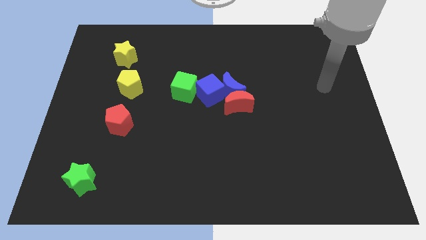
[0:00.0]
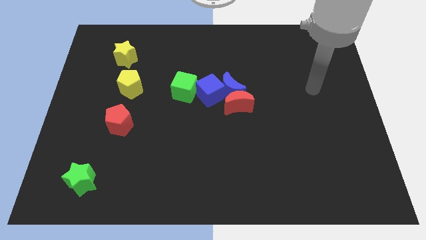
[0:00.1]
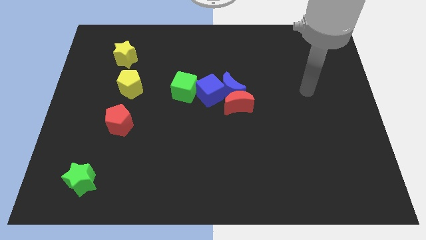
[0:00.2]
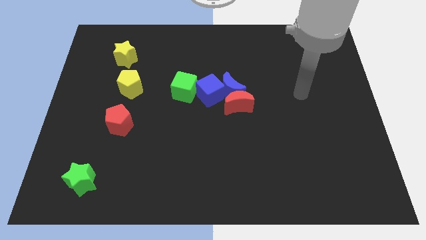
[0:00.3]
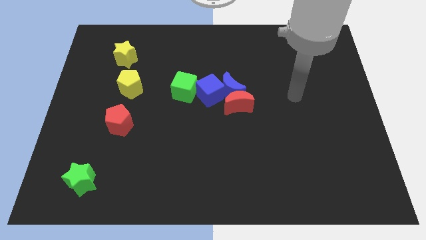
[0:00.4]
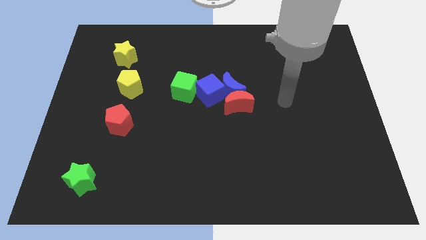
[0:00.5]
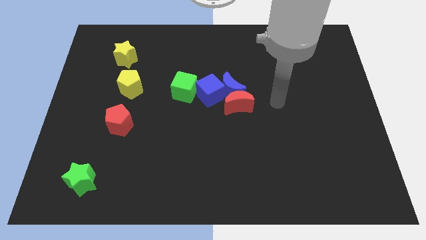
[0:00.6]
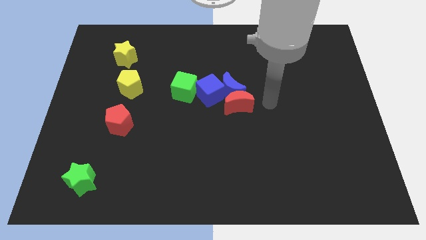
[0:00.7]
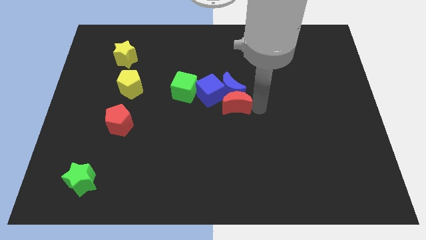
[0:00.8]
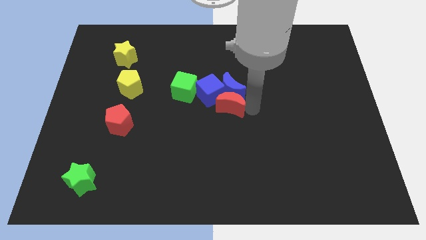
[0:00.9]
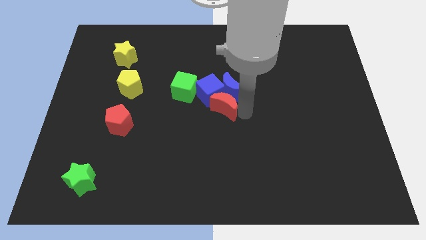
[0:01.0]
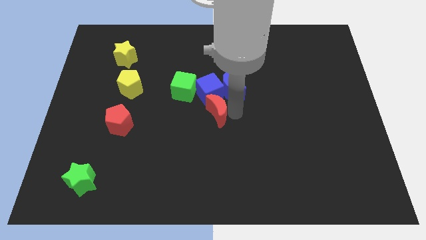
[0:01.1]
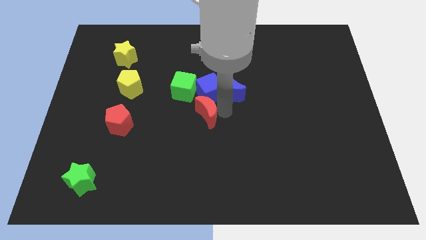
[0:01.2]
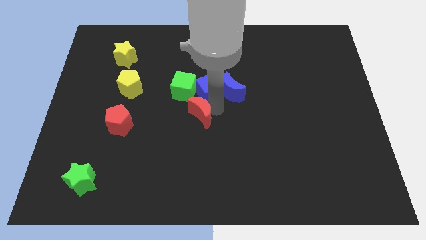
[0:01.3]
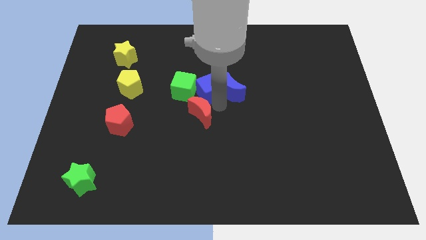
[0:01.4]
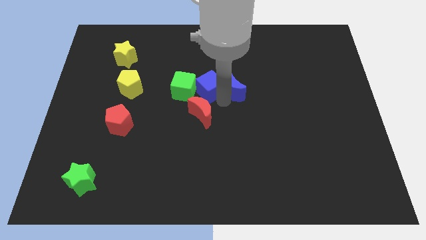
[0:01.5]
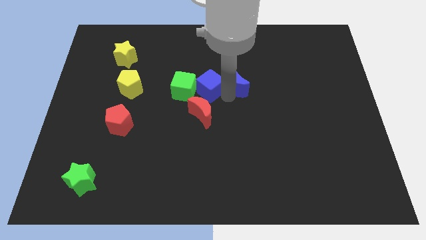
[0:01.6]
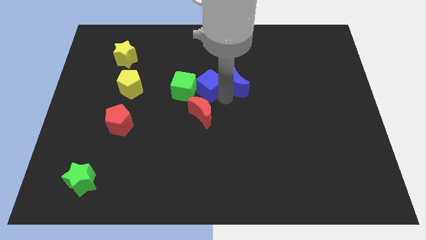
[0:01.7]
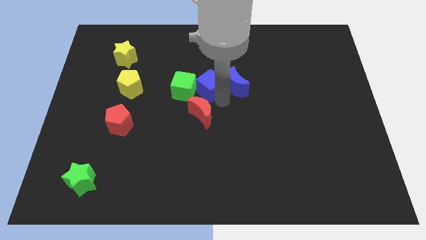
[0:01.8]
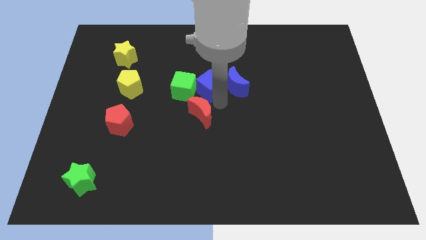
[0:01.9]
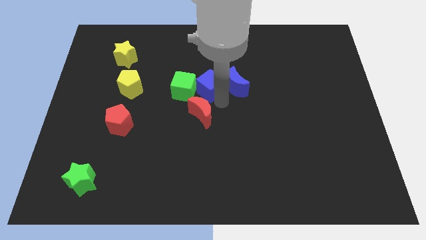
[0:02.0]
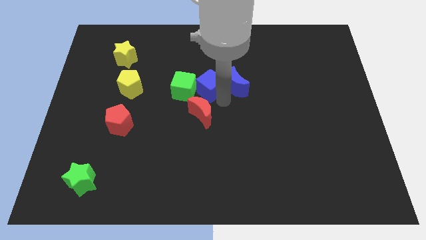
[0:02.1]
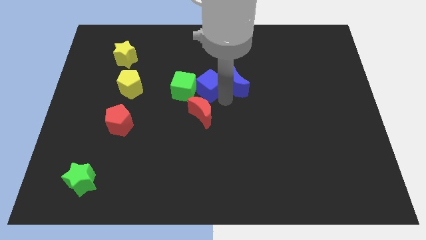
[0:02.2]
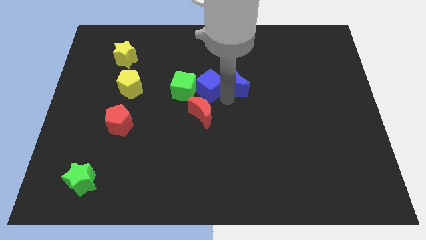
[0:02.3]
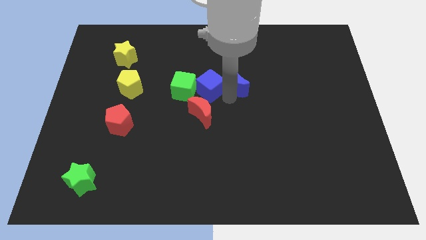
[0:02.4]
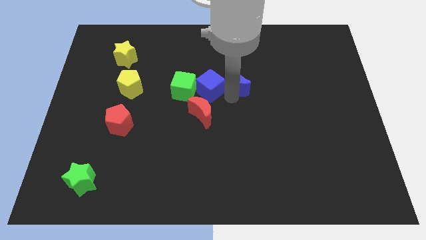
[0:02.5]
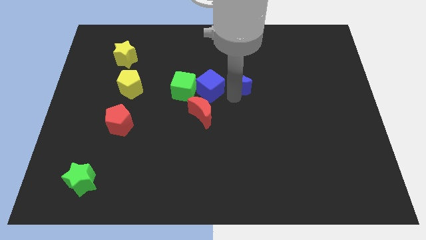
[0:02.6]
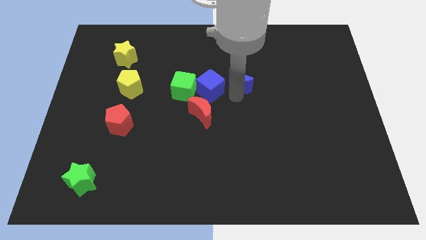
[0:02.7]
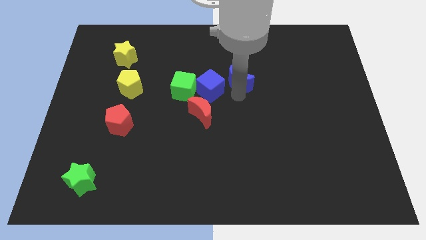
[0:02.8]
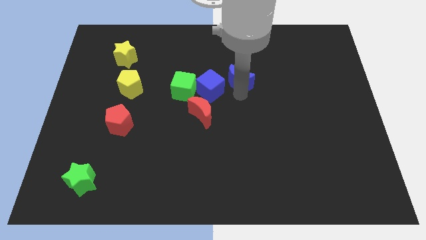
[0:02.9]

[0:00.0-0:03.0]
move the blue moon away from the red moon and blue cube

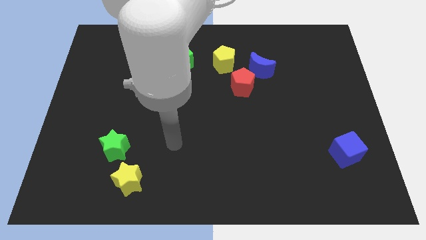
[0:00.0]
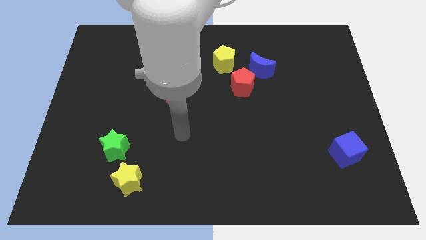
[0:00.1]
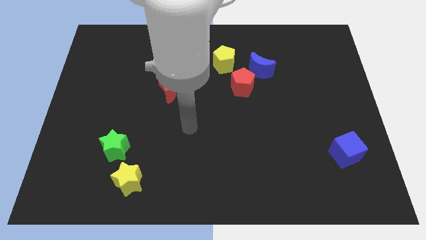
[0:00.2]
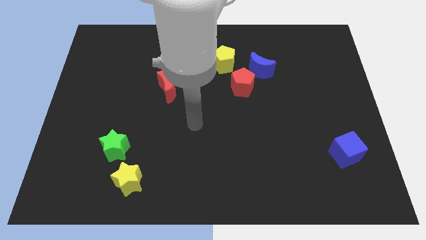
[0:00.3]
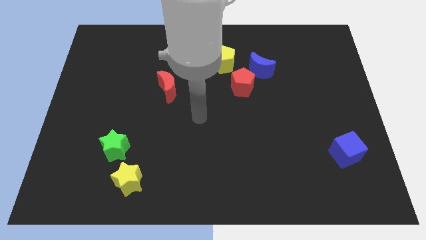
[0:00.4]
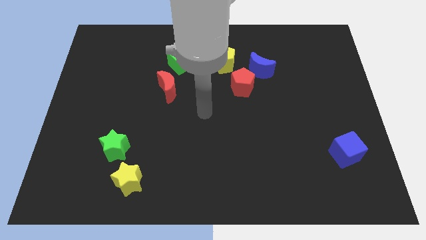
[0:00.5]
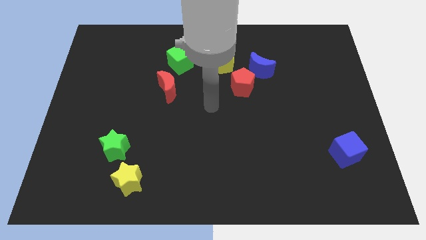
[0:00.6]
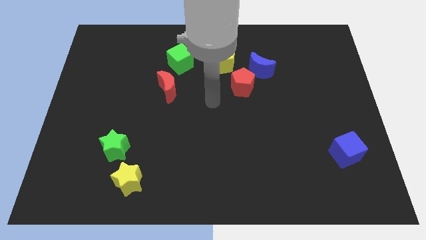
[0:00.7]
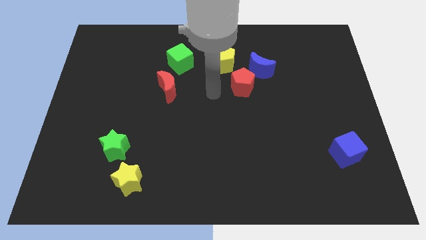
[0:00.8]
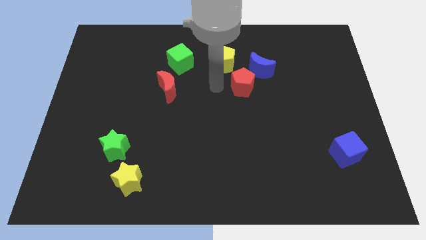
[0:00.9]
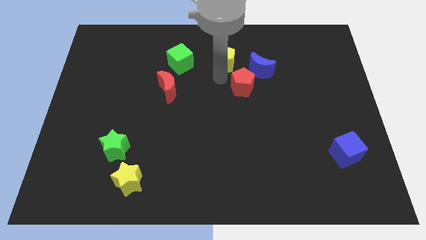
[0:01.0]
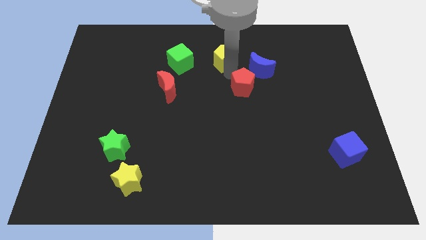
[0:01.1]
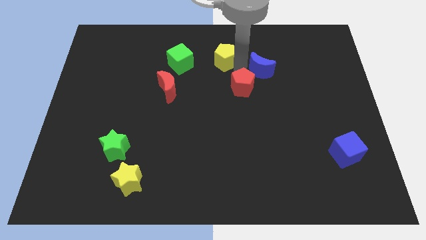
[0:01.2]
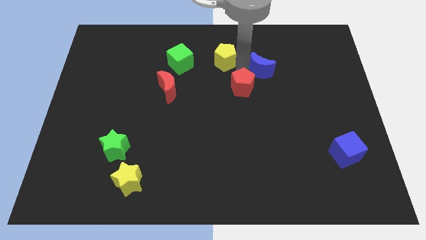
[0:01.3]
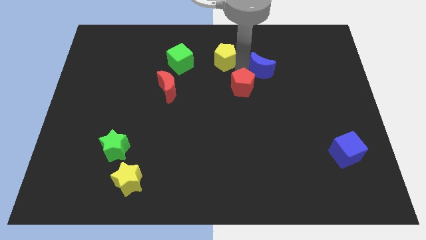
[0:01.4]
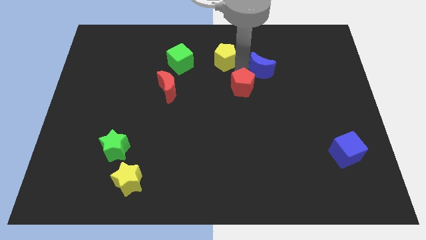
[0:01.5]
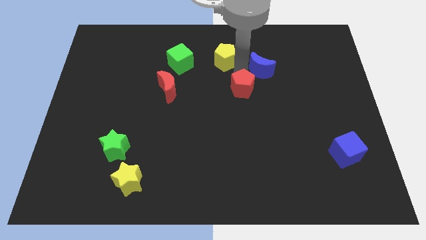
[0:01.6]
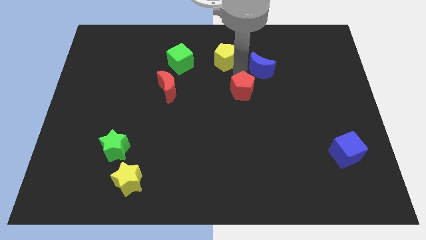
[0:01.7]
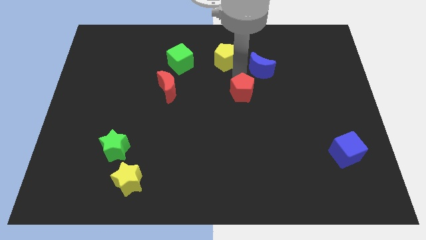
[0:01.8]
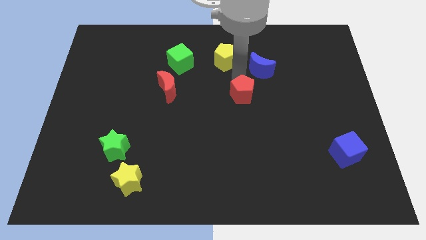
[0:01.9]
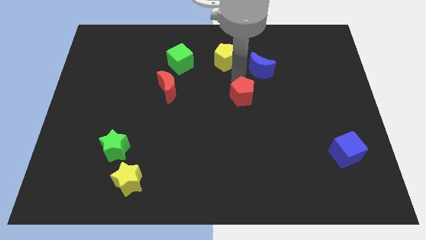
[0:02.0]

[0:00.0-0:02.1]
move the red pentagon away from the blue moon and yellow pentagon

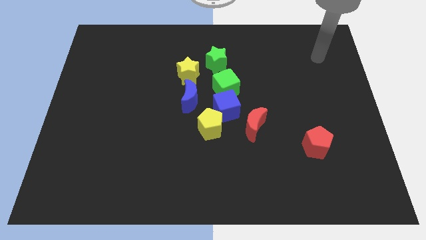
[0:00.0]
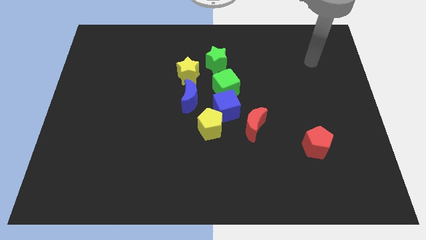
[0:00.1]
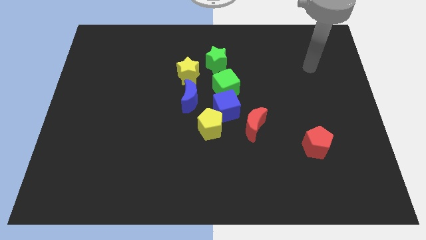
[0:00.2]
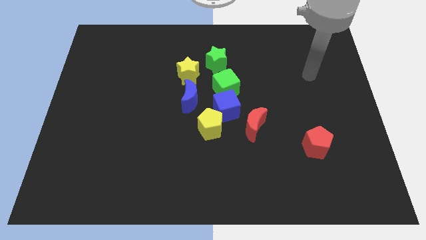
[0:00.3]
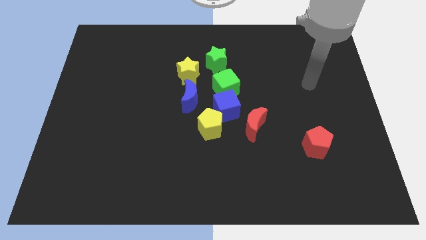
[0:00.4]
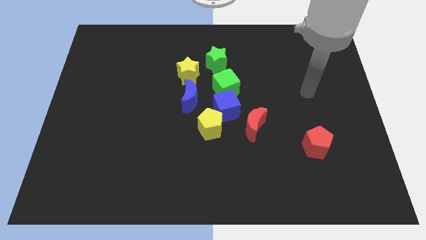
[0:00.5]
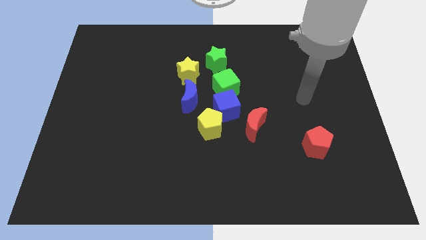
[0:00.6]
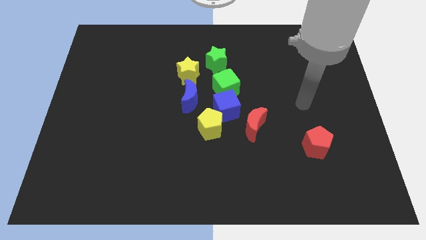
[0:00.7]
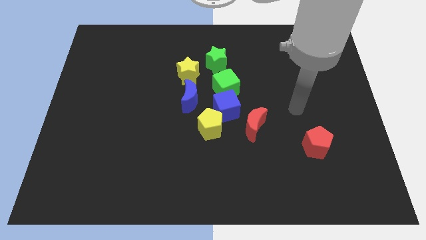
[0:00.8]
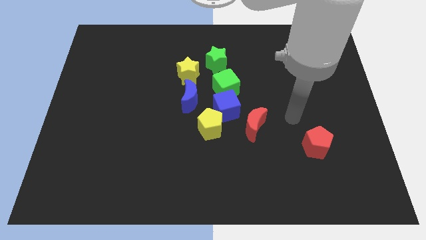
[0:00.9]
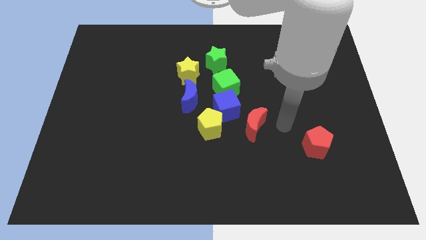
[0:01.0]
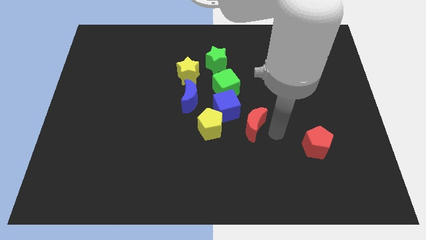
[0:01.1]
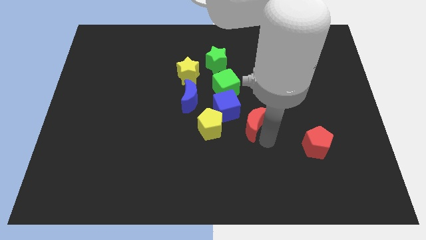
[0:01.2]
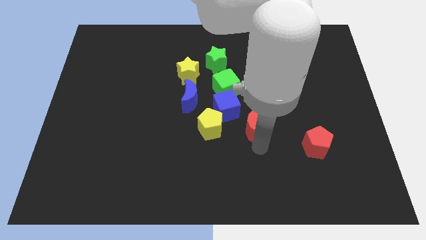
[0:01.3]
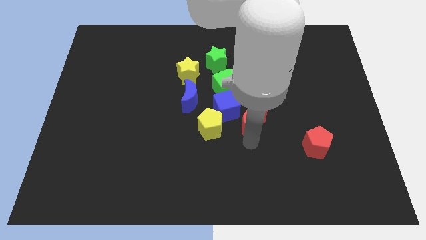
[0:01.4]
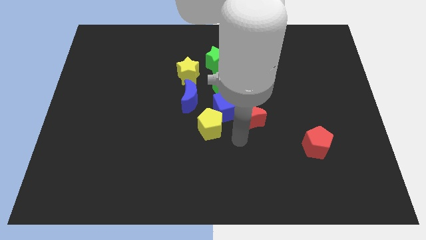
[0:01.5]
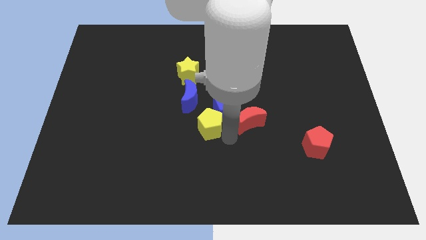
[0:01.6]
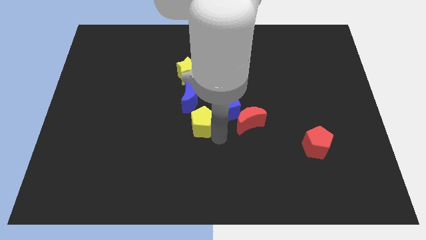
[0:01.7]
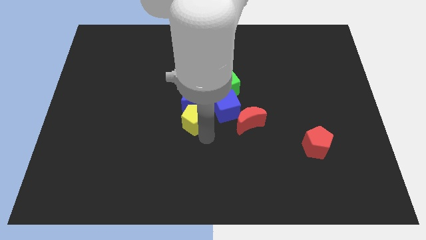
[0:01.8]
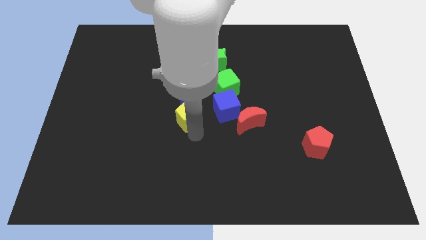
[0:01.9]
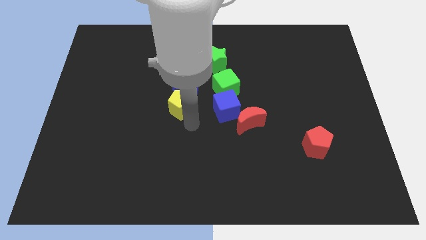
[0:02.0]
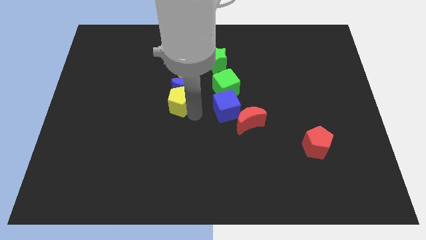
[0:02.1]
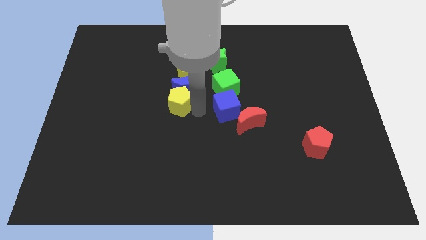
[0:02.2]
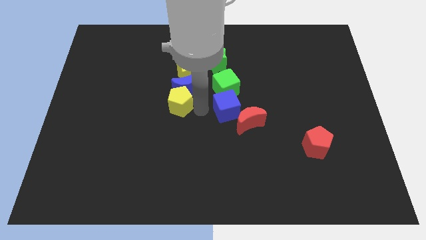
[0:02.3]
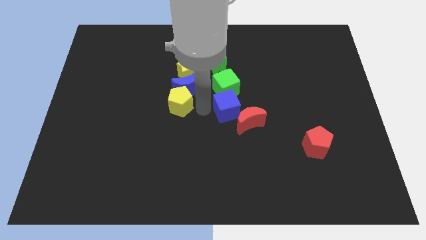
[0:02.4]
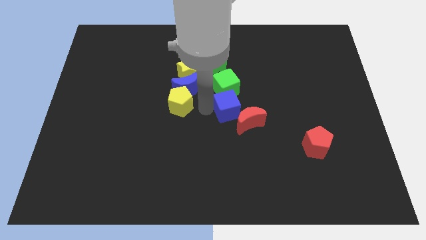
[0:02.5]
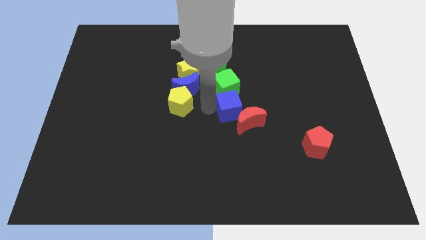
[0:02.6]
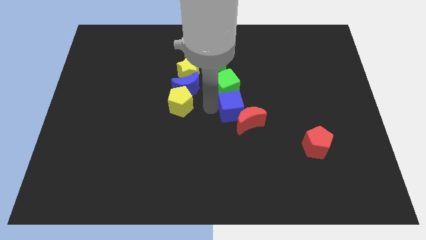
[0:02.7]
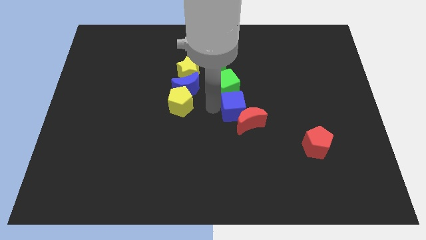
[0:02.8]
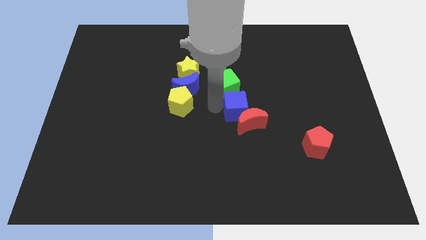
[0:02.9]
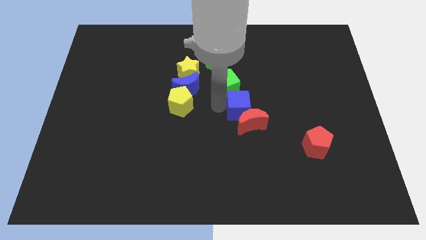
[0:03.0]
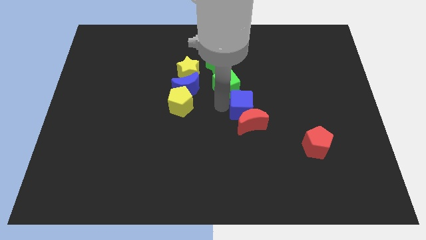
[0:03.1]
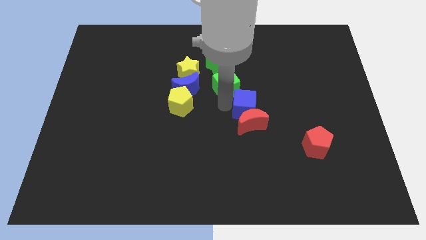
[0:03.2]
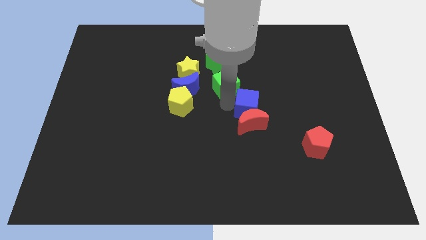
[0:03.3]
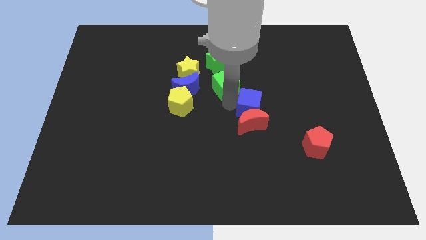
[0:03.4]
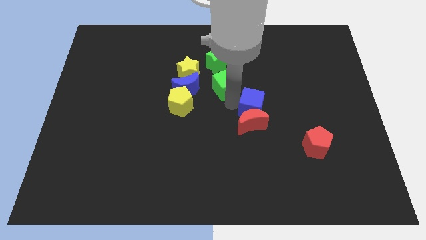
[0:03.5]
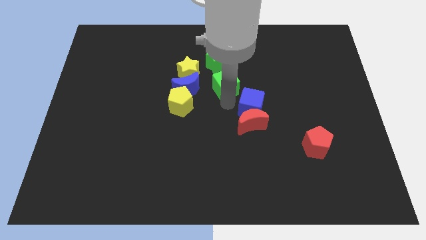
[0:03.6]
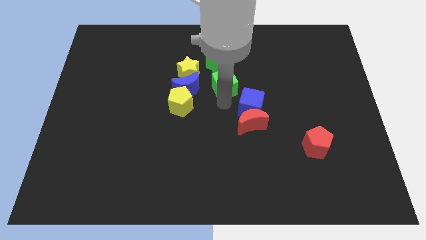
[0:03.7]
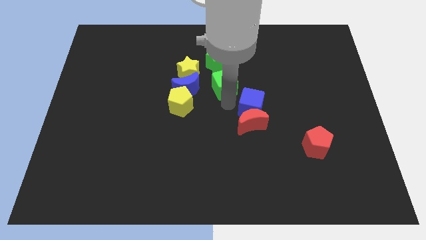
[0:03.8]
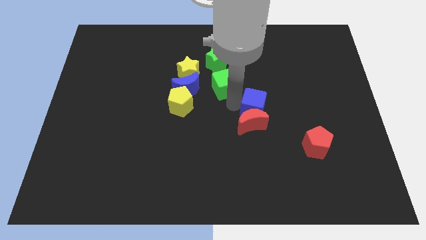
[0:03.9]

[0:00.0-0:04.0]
pull the blue cube apart from the clump

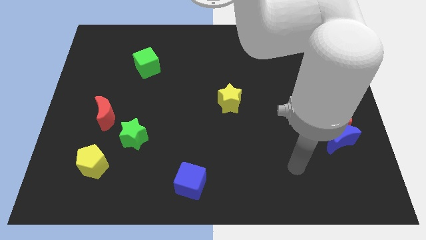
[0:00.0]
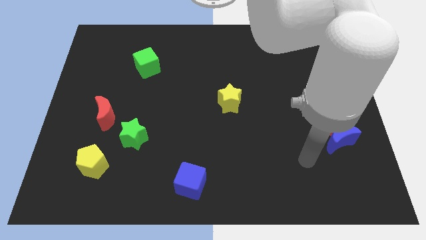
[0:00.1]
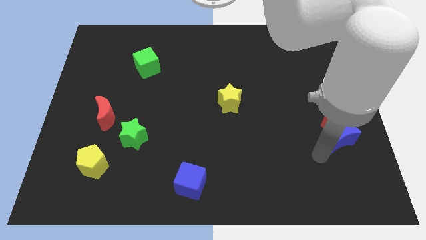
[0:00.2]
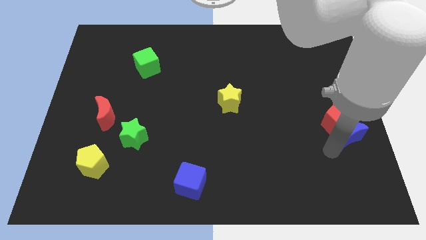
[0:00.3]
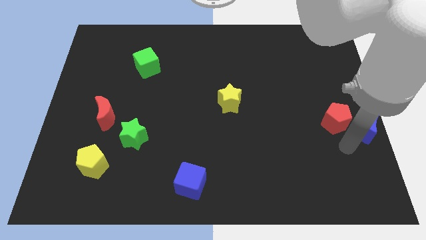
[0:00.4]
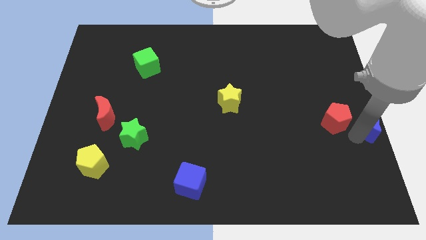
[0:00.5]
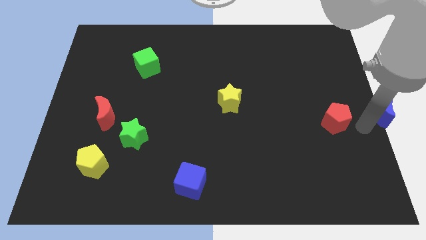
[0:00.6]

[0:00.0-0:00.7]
separate the red pentagon from the blue moon
